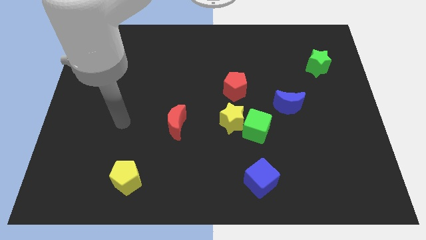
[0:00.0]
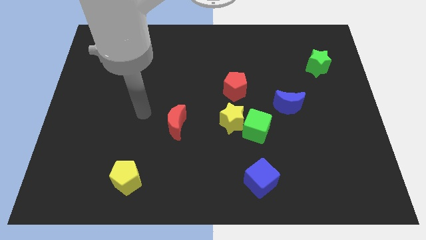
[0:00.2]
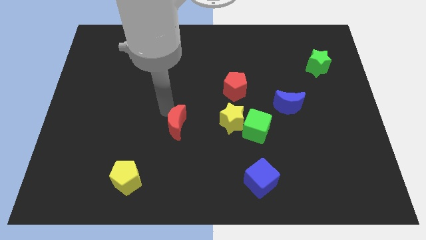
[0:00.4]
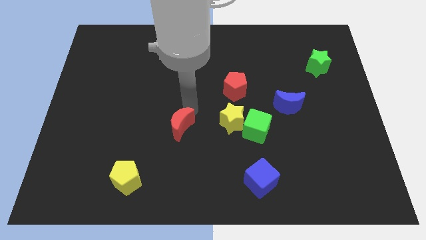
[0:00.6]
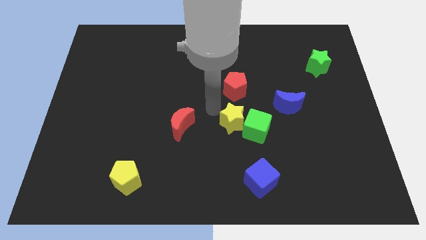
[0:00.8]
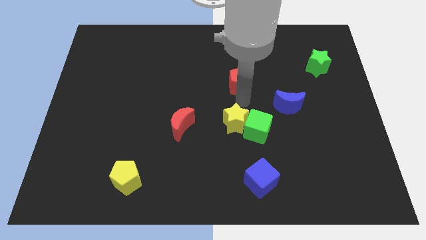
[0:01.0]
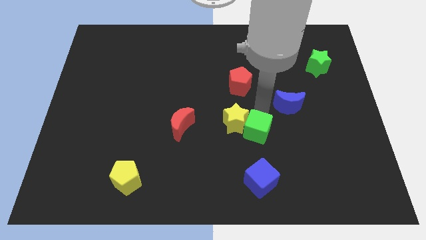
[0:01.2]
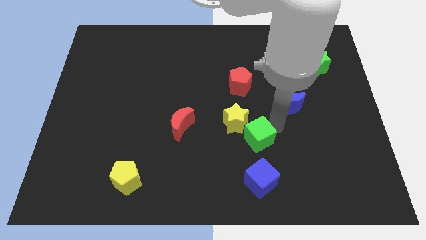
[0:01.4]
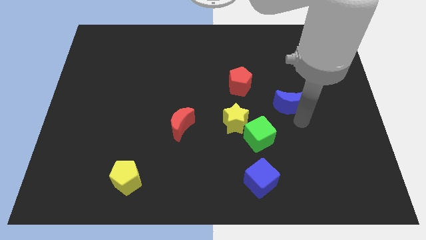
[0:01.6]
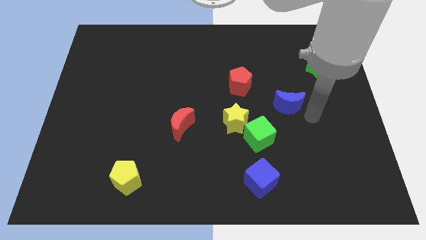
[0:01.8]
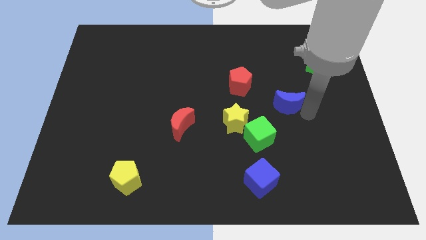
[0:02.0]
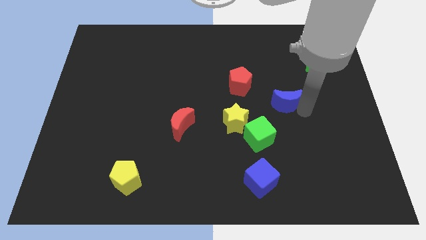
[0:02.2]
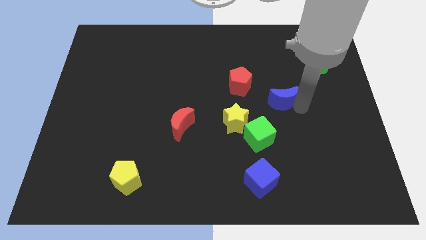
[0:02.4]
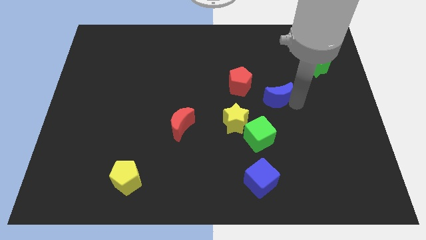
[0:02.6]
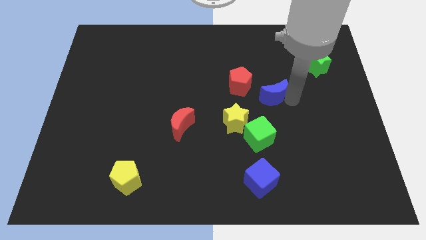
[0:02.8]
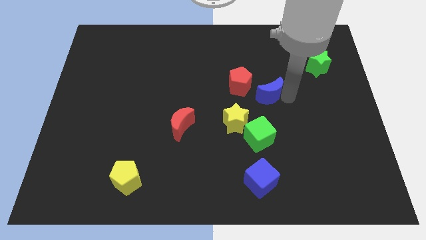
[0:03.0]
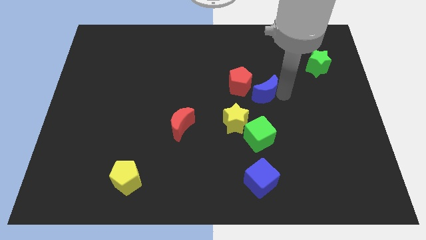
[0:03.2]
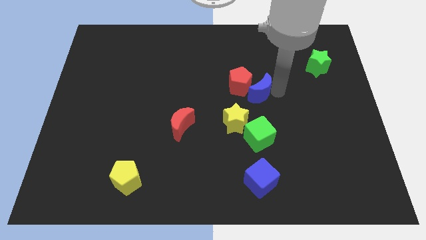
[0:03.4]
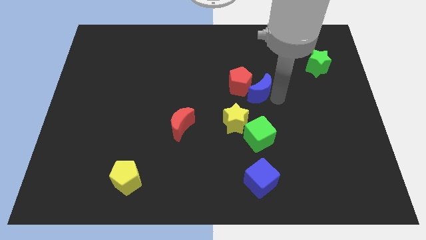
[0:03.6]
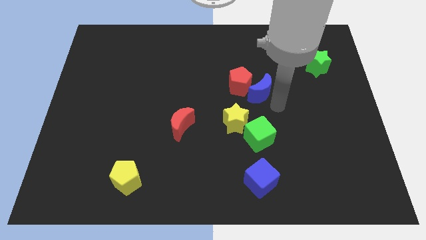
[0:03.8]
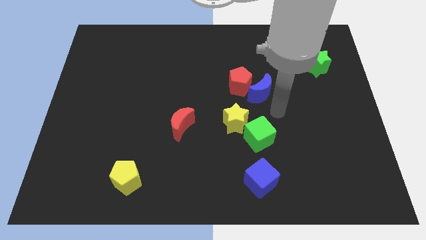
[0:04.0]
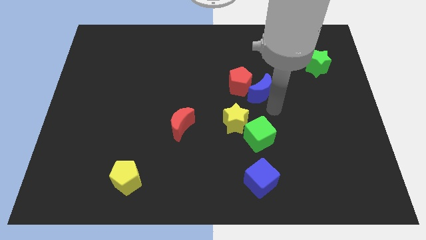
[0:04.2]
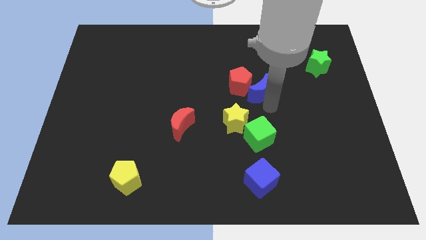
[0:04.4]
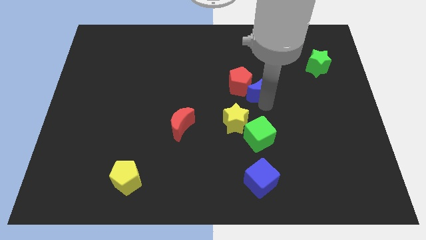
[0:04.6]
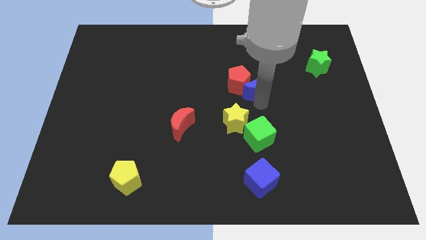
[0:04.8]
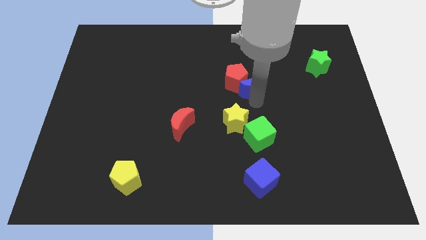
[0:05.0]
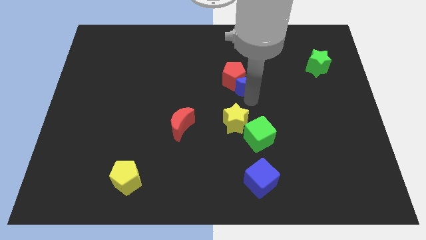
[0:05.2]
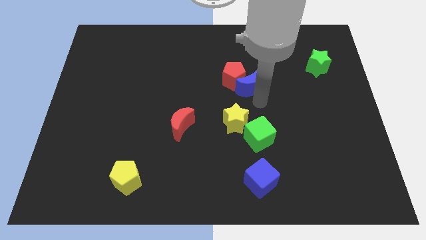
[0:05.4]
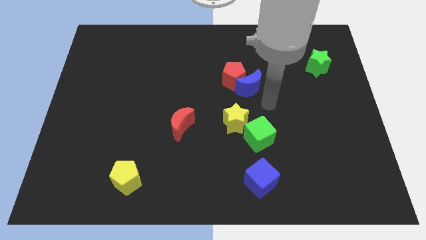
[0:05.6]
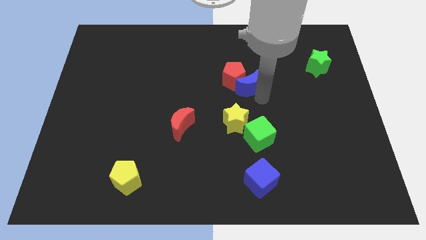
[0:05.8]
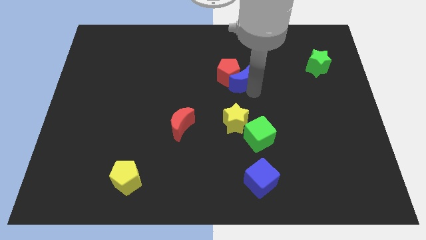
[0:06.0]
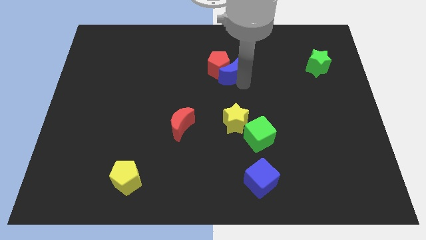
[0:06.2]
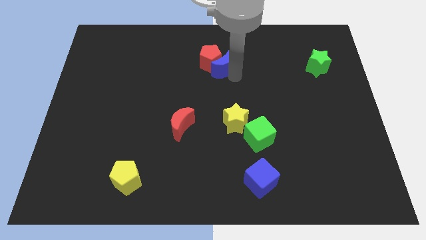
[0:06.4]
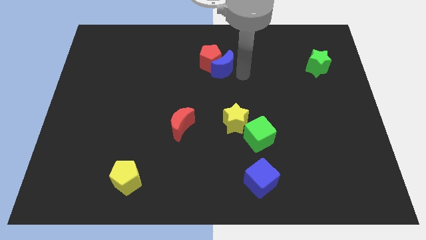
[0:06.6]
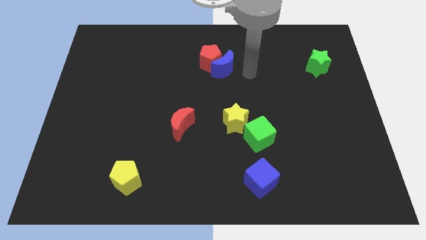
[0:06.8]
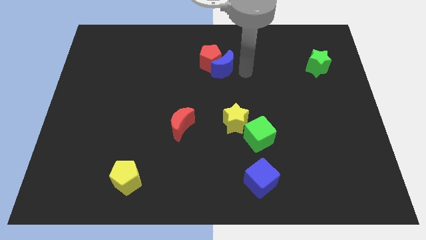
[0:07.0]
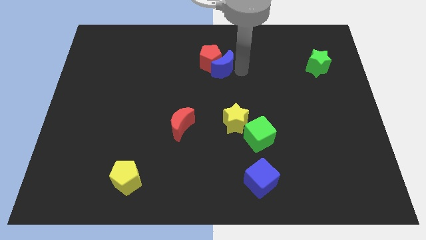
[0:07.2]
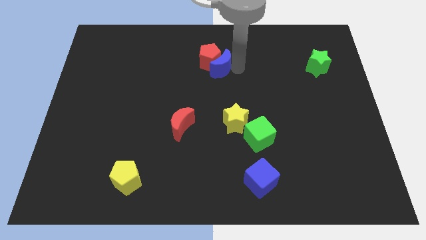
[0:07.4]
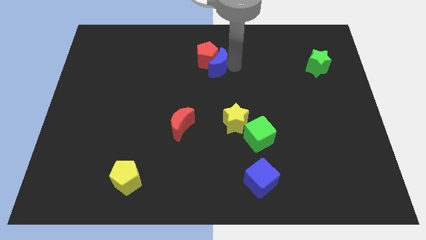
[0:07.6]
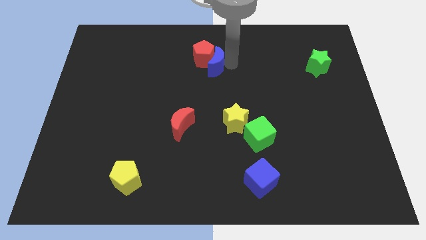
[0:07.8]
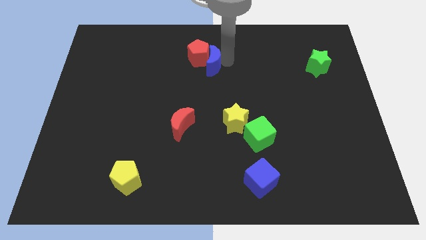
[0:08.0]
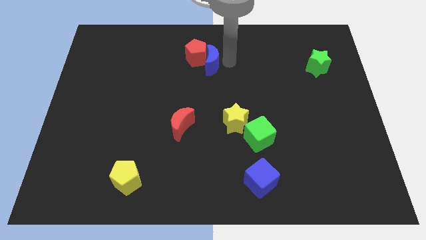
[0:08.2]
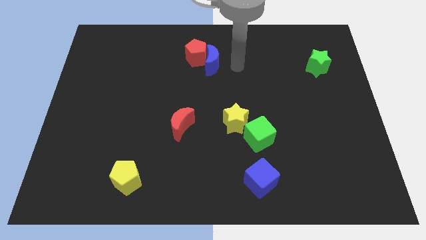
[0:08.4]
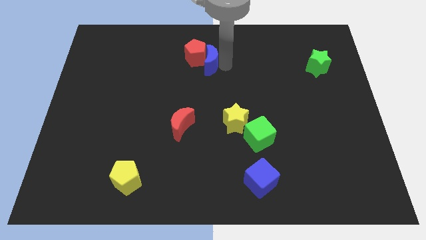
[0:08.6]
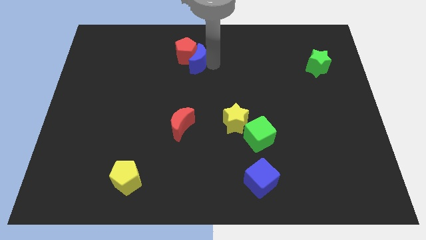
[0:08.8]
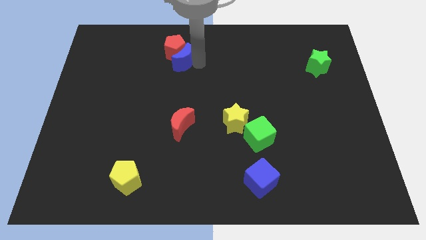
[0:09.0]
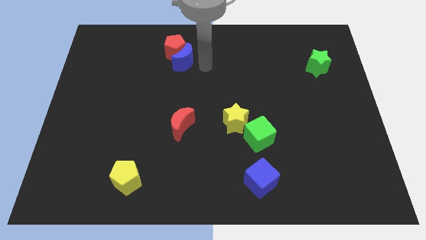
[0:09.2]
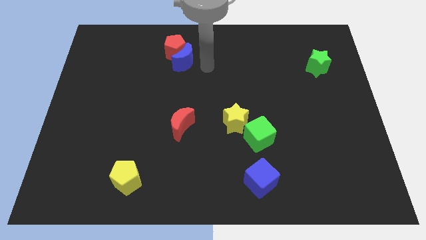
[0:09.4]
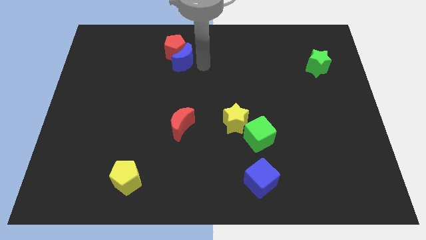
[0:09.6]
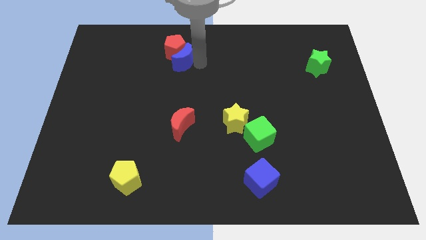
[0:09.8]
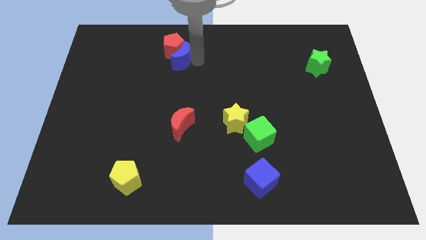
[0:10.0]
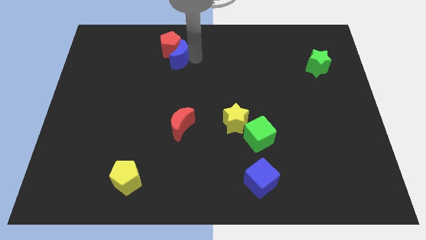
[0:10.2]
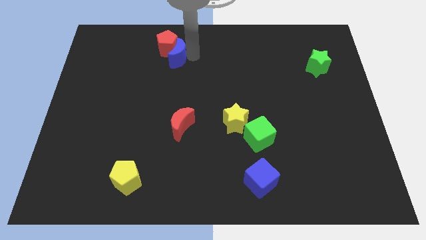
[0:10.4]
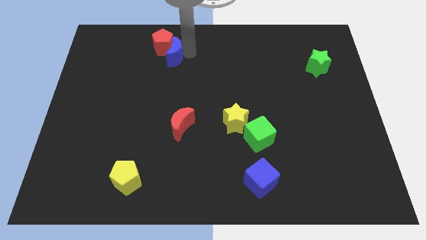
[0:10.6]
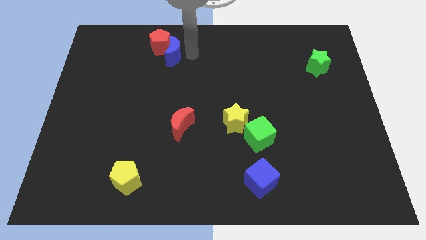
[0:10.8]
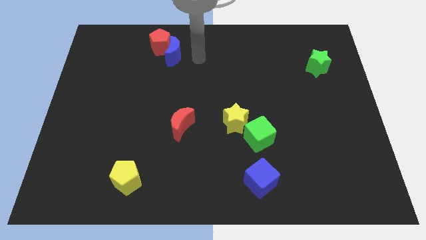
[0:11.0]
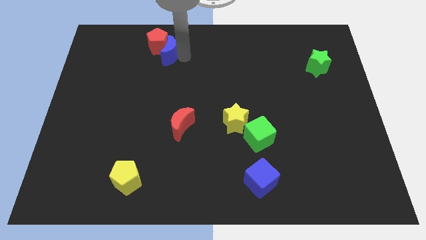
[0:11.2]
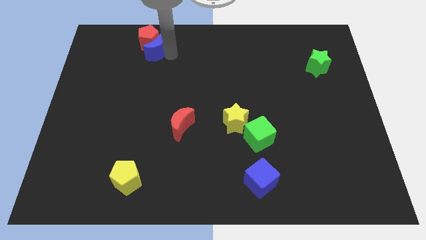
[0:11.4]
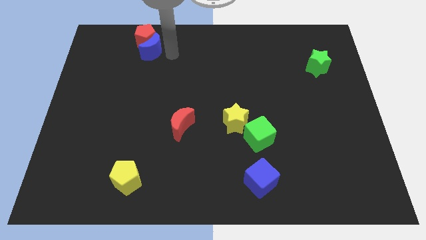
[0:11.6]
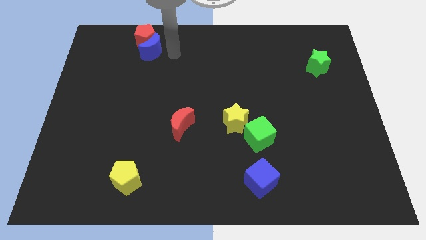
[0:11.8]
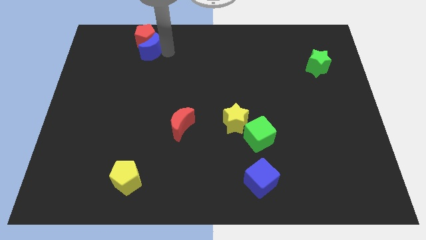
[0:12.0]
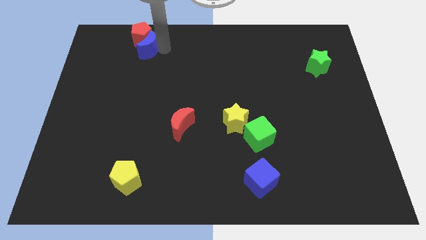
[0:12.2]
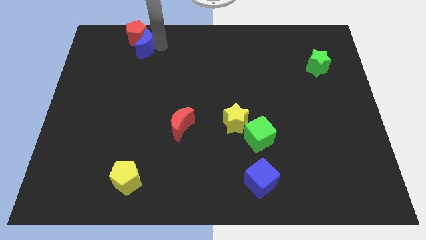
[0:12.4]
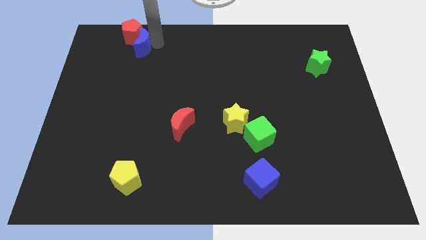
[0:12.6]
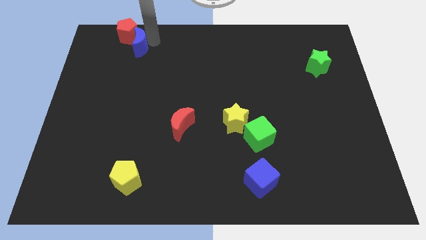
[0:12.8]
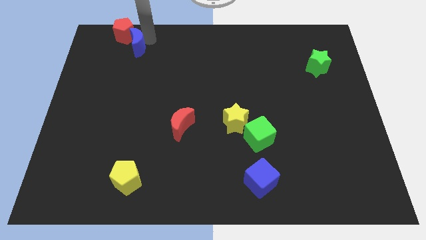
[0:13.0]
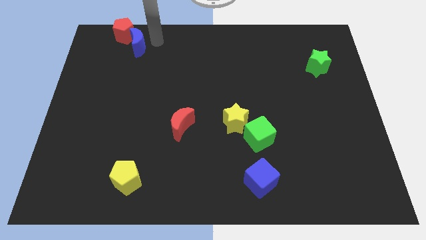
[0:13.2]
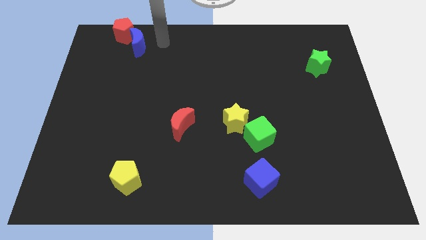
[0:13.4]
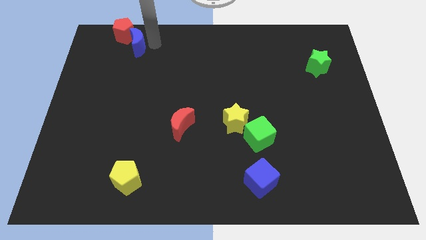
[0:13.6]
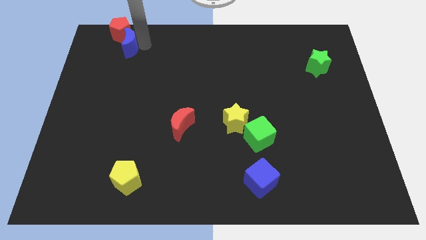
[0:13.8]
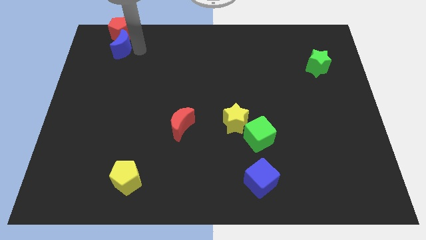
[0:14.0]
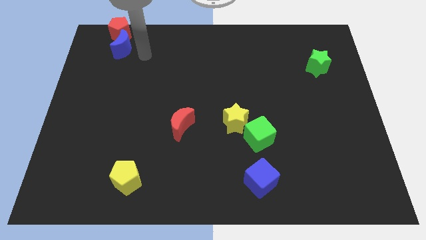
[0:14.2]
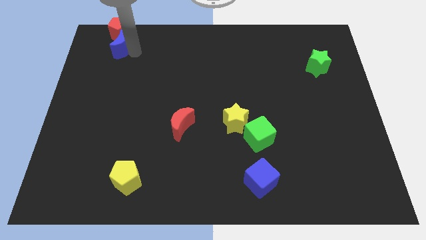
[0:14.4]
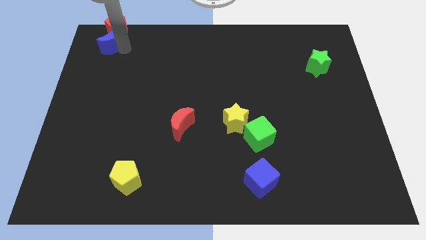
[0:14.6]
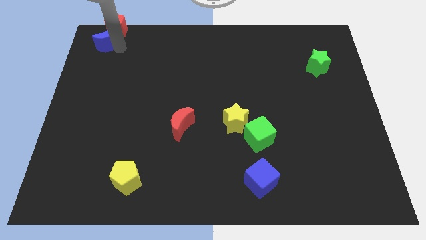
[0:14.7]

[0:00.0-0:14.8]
push the blue moon to the upper left corner
